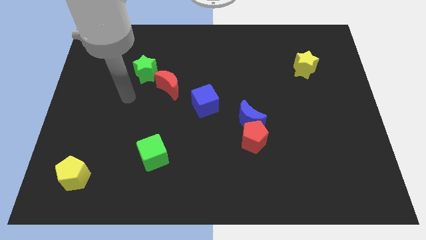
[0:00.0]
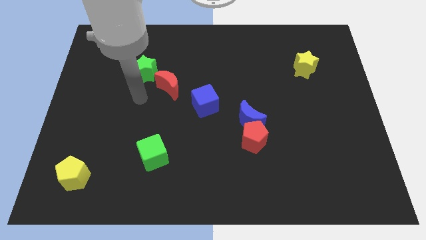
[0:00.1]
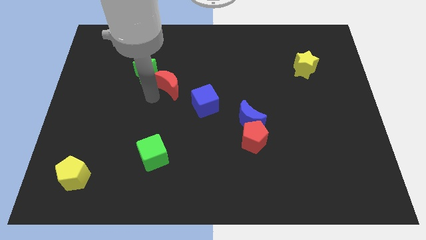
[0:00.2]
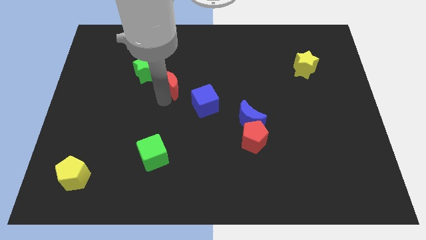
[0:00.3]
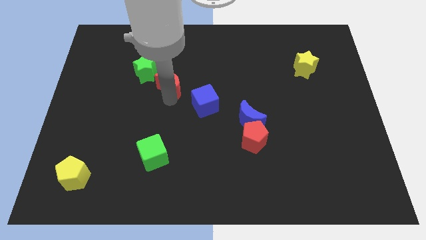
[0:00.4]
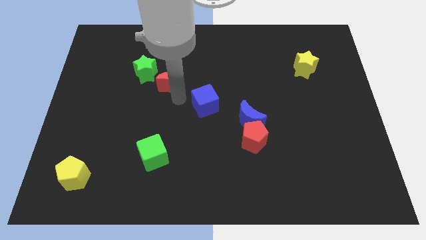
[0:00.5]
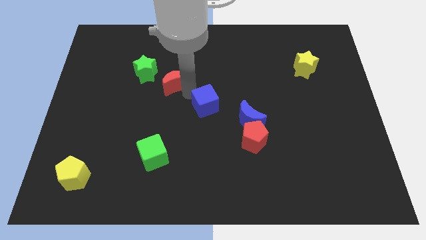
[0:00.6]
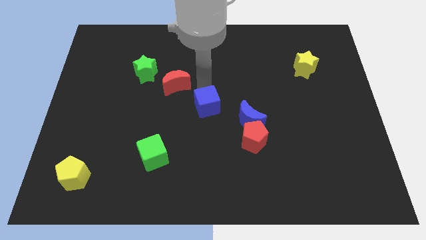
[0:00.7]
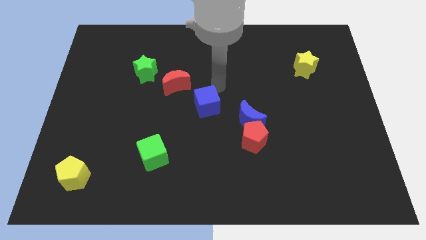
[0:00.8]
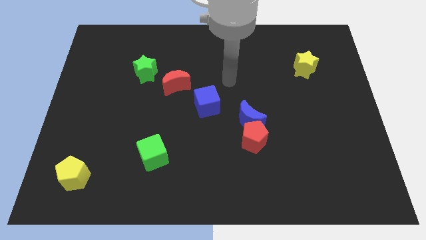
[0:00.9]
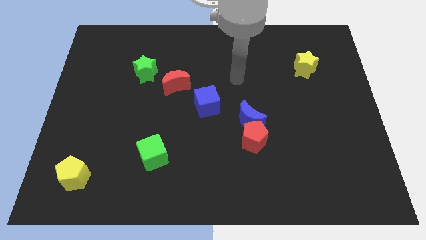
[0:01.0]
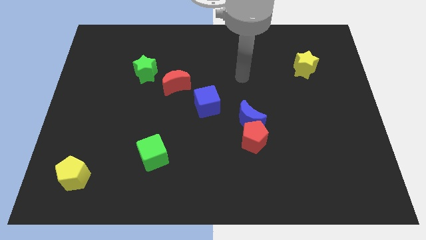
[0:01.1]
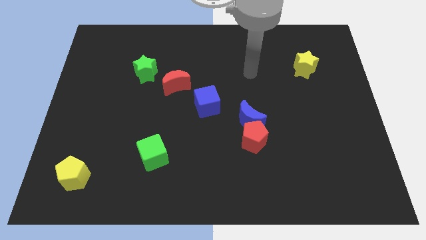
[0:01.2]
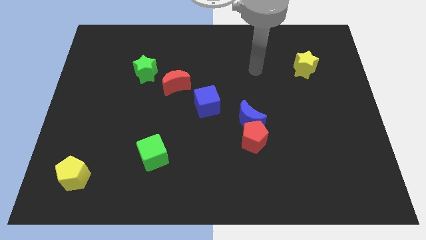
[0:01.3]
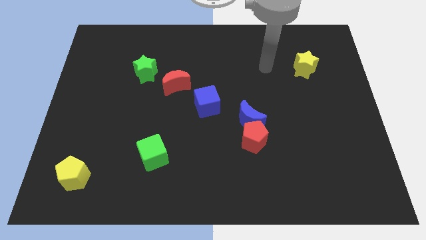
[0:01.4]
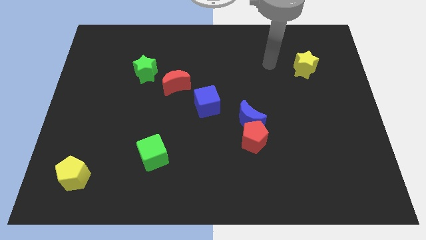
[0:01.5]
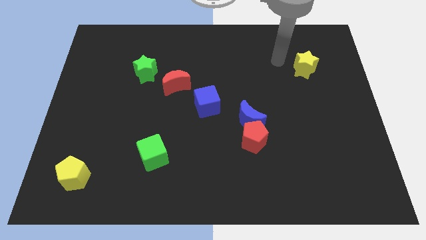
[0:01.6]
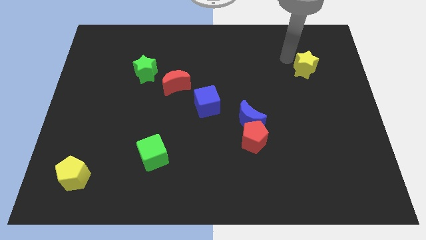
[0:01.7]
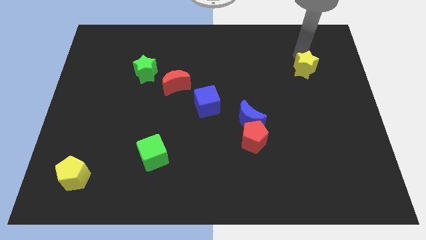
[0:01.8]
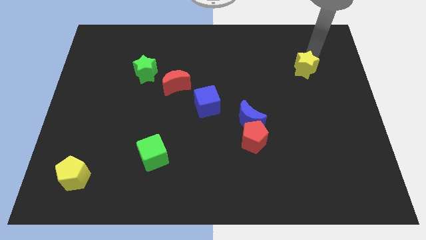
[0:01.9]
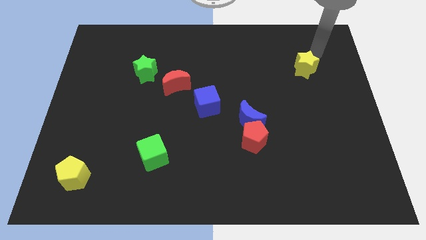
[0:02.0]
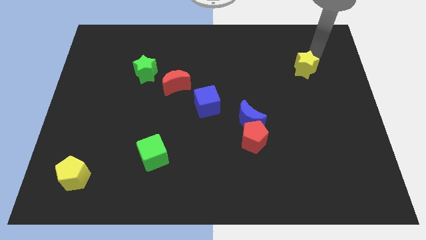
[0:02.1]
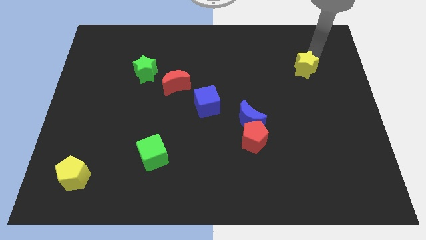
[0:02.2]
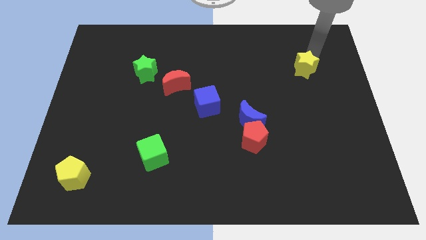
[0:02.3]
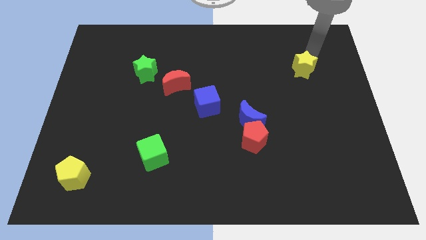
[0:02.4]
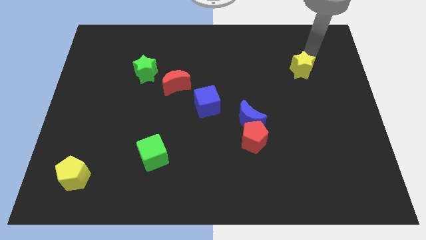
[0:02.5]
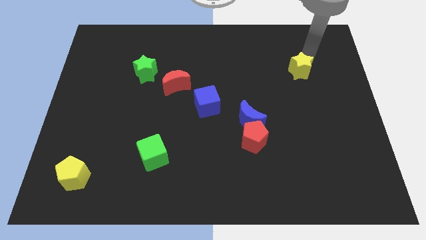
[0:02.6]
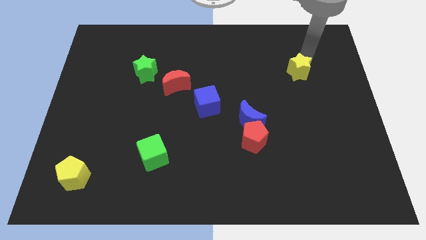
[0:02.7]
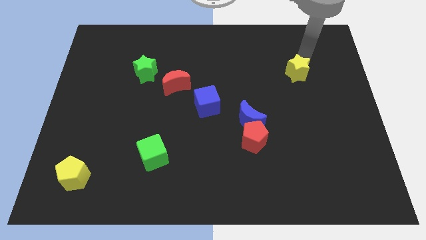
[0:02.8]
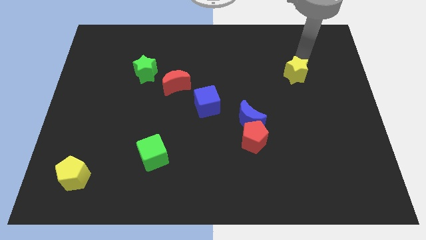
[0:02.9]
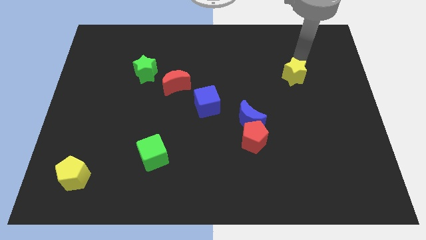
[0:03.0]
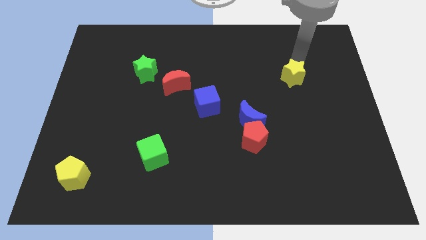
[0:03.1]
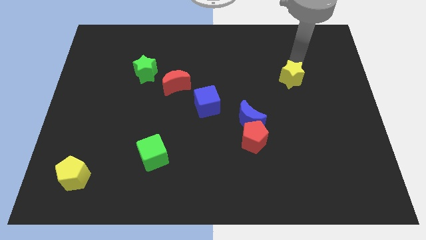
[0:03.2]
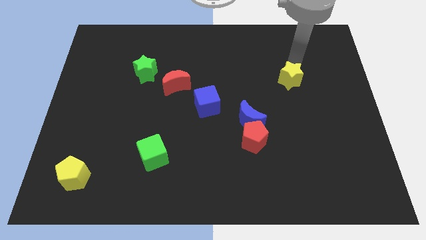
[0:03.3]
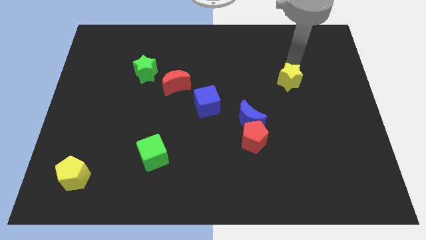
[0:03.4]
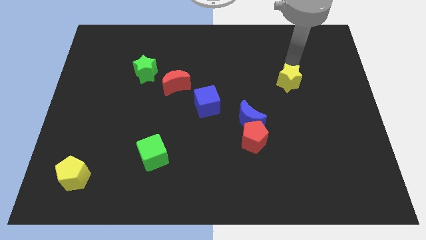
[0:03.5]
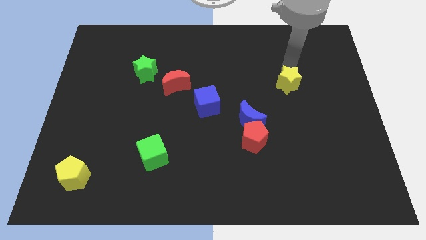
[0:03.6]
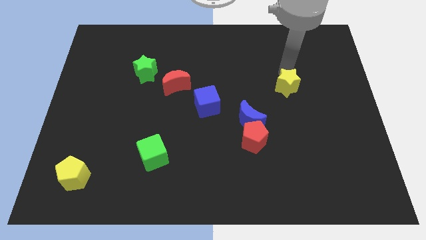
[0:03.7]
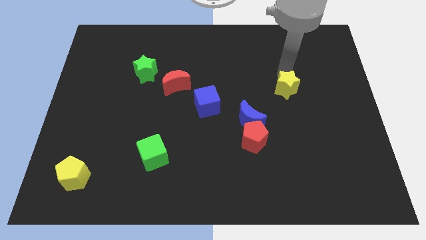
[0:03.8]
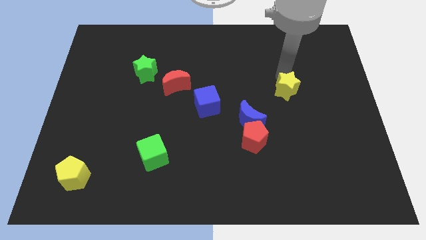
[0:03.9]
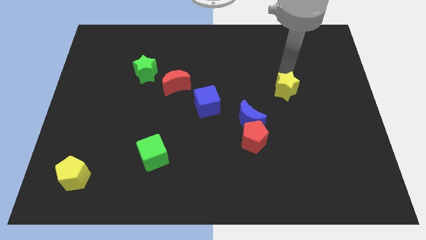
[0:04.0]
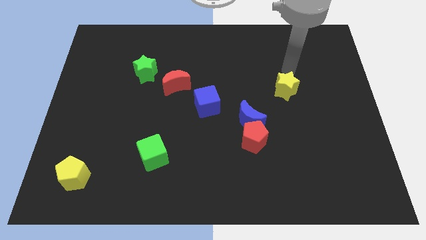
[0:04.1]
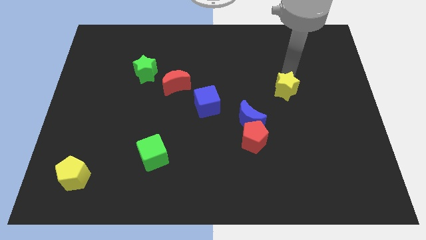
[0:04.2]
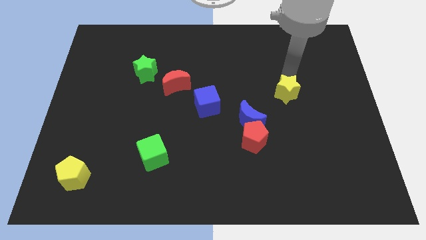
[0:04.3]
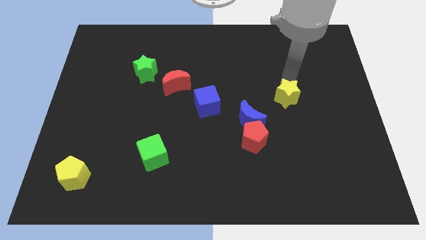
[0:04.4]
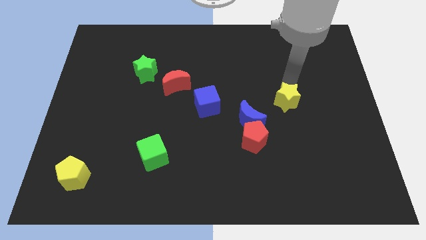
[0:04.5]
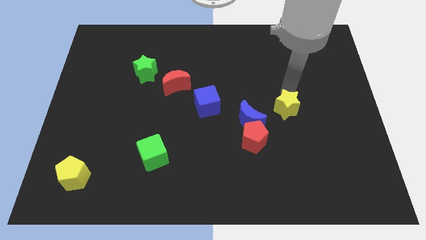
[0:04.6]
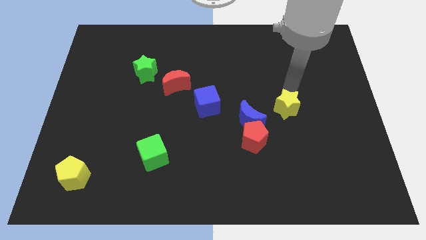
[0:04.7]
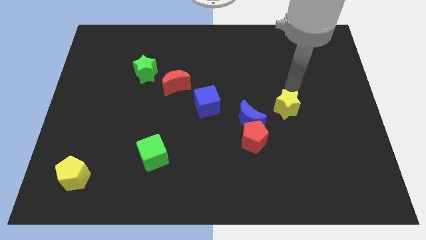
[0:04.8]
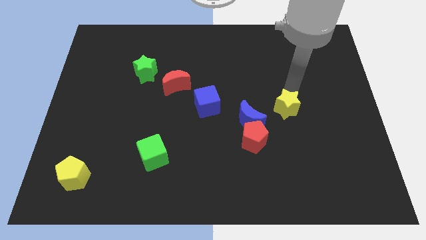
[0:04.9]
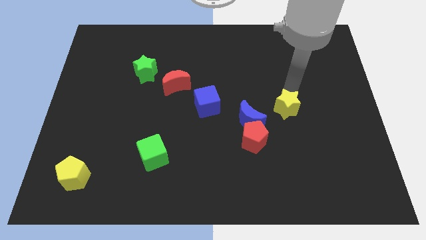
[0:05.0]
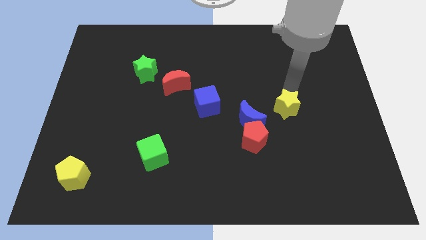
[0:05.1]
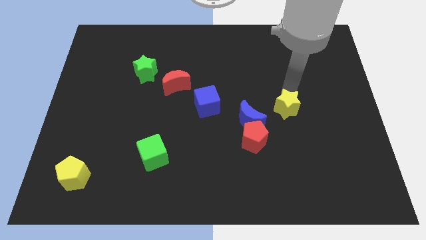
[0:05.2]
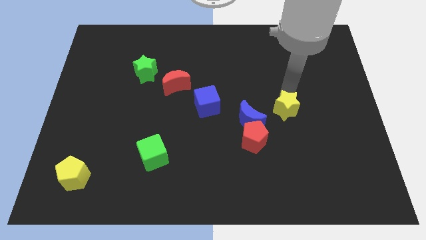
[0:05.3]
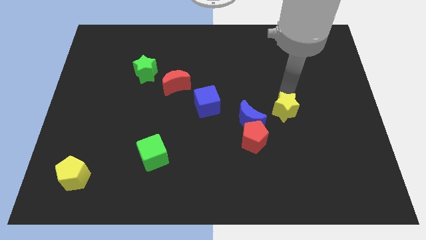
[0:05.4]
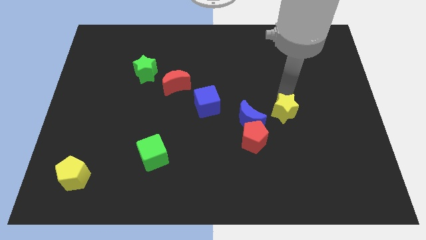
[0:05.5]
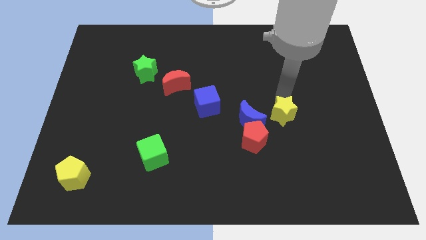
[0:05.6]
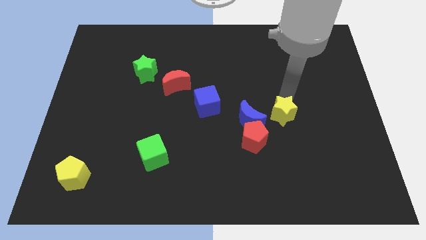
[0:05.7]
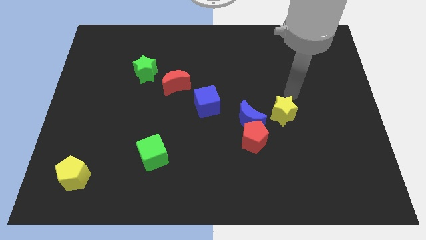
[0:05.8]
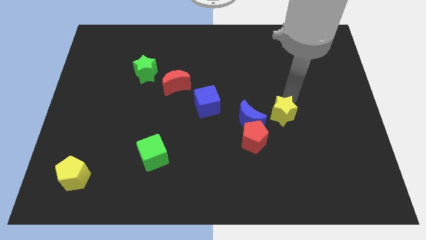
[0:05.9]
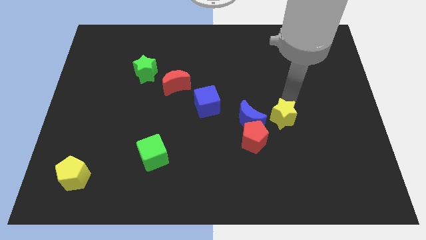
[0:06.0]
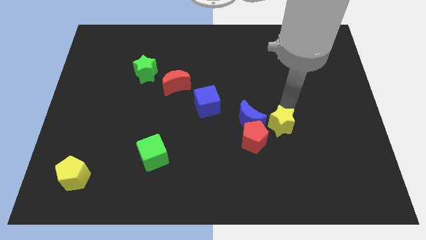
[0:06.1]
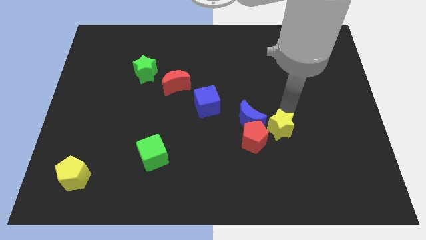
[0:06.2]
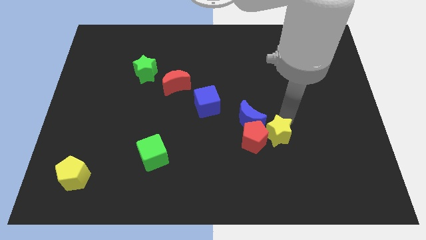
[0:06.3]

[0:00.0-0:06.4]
slide the yellow star to the red pentagon

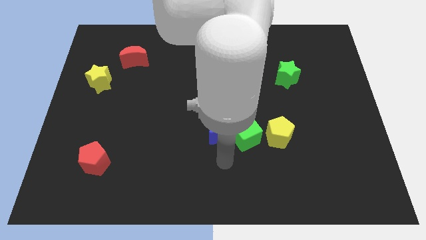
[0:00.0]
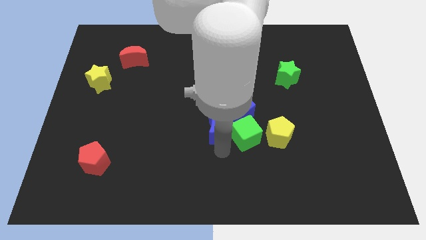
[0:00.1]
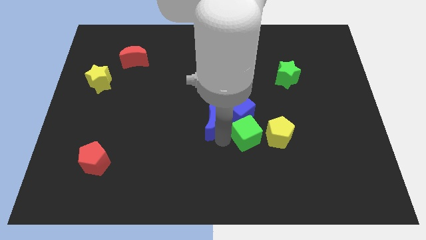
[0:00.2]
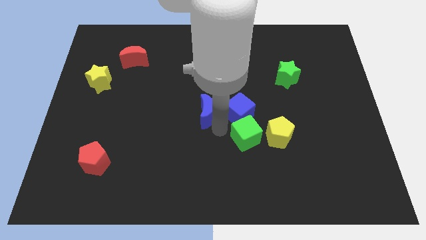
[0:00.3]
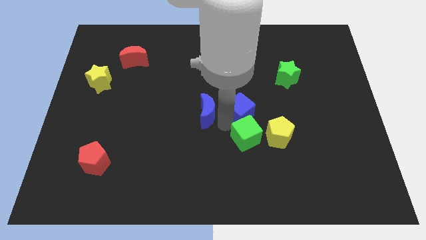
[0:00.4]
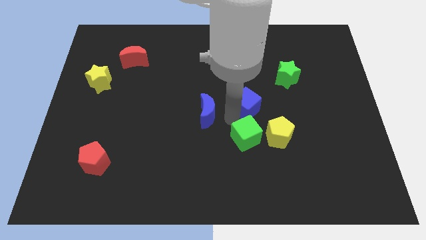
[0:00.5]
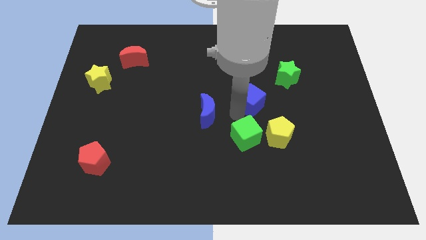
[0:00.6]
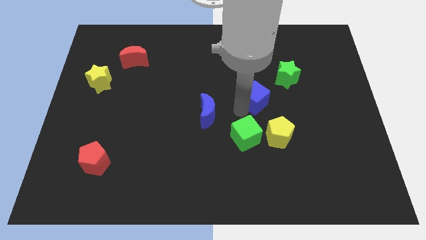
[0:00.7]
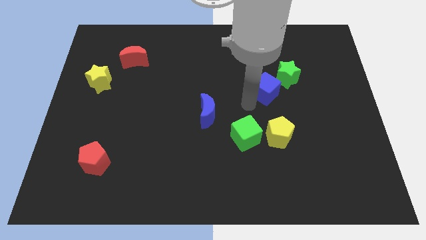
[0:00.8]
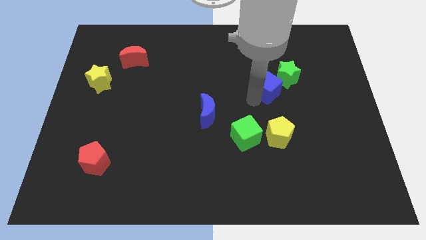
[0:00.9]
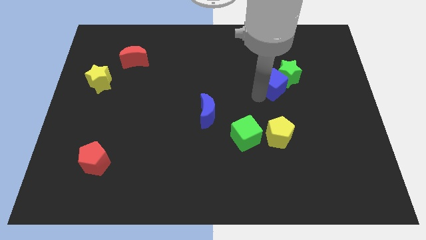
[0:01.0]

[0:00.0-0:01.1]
put the blue cube close to the green star
